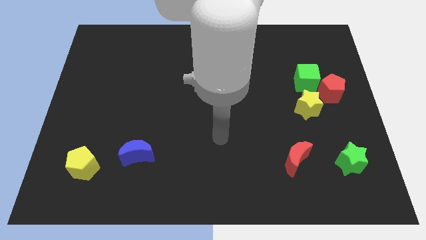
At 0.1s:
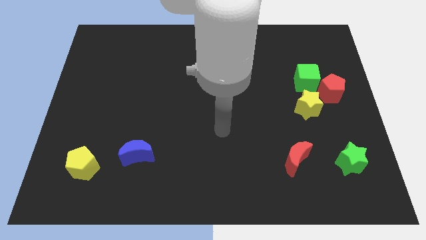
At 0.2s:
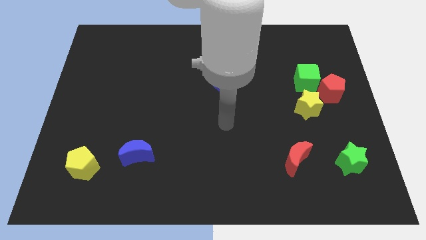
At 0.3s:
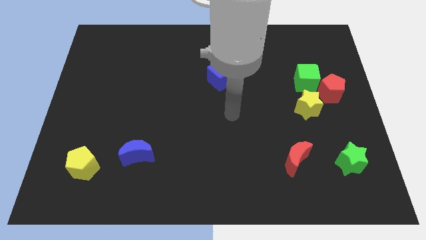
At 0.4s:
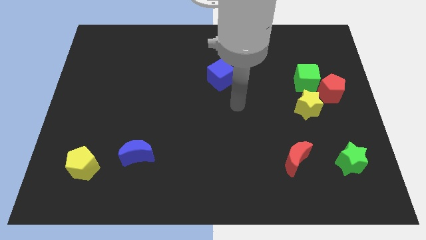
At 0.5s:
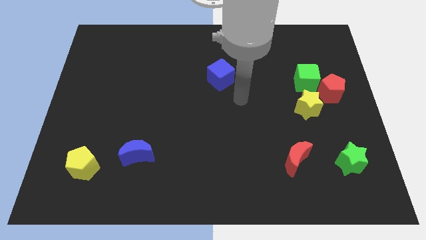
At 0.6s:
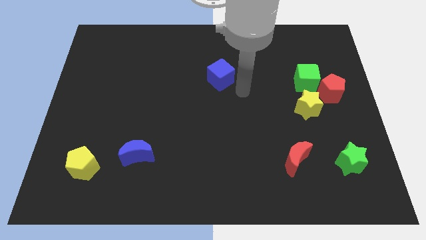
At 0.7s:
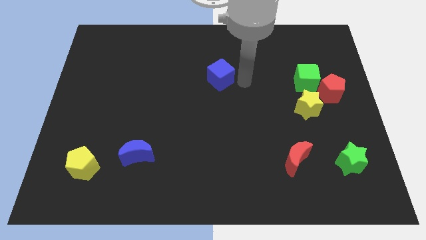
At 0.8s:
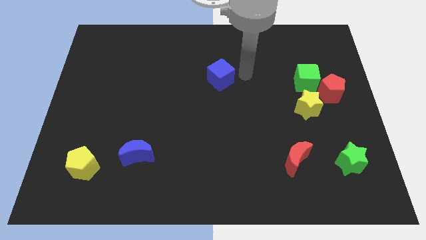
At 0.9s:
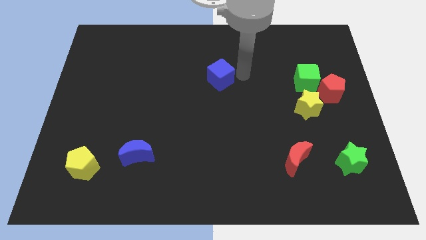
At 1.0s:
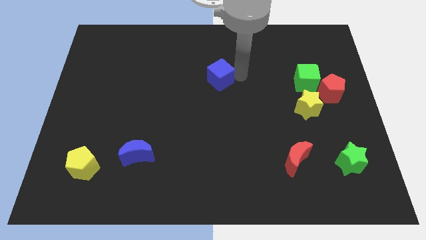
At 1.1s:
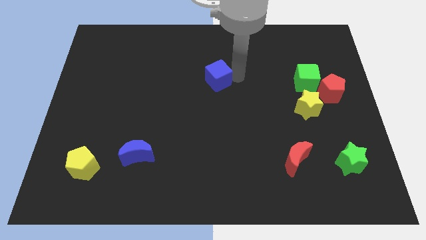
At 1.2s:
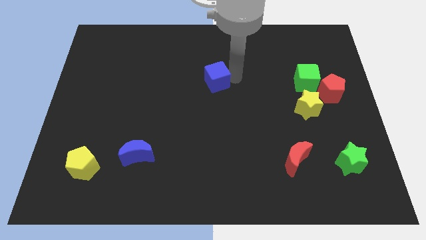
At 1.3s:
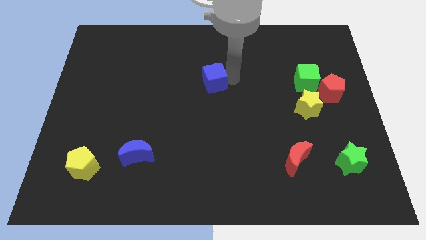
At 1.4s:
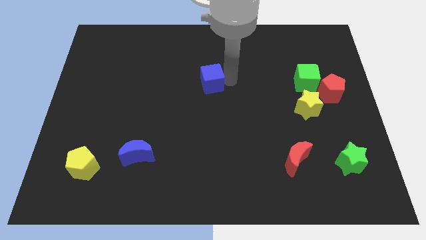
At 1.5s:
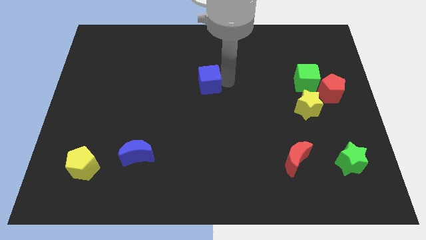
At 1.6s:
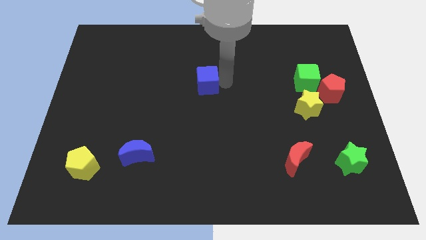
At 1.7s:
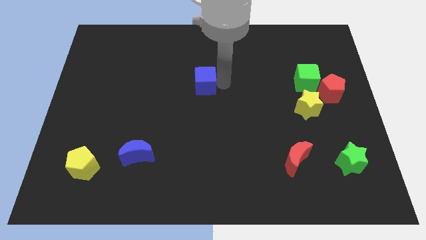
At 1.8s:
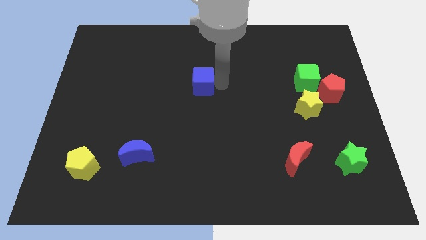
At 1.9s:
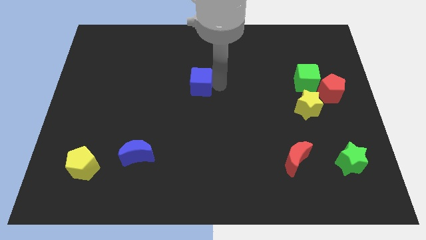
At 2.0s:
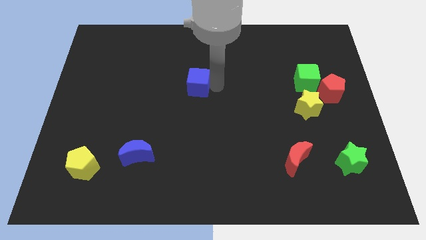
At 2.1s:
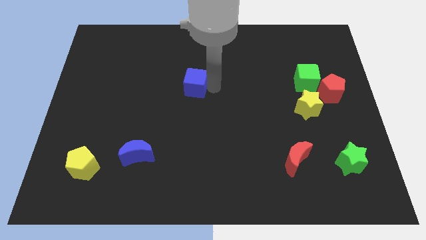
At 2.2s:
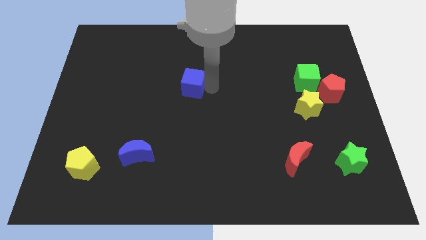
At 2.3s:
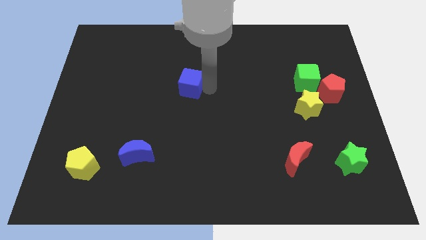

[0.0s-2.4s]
slightly push the blue cube to the left

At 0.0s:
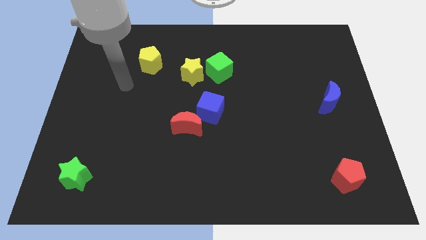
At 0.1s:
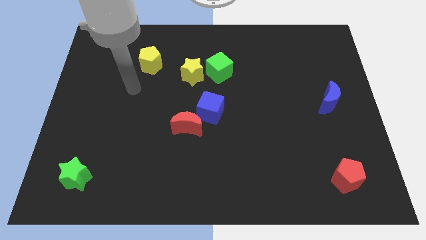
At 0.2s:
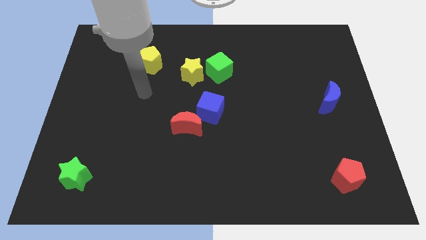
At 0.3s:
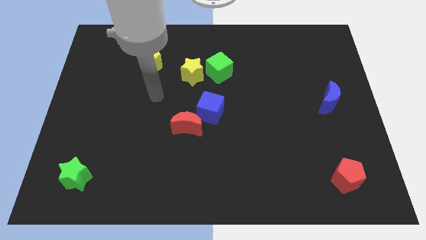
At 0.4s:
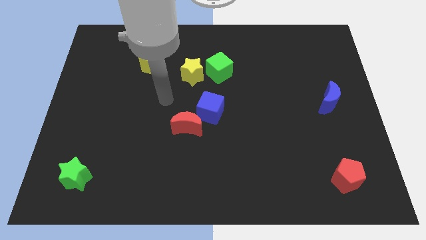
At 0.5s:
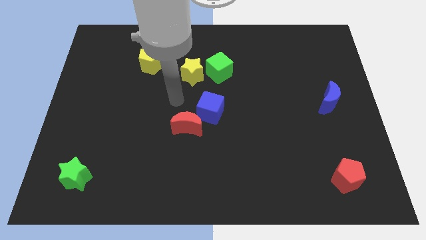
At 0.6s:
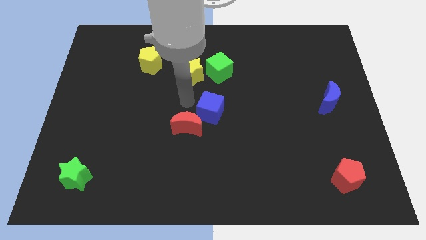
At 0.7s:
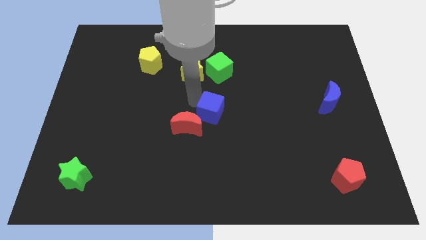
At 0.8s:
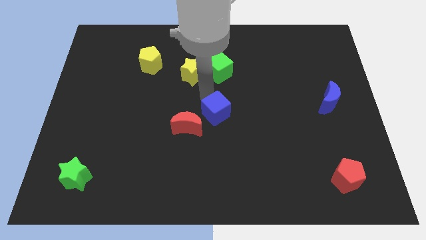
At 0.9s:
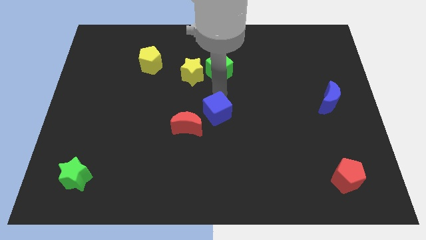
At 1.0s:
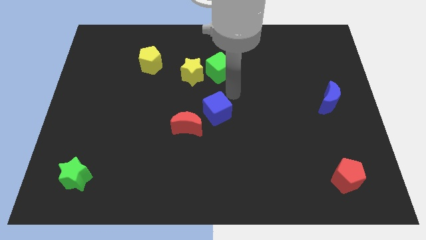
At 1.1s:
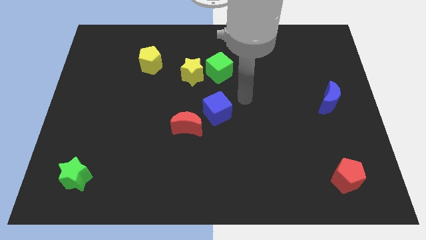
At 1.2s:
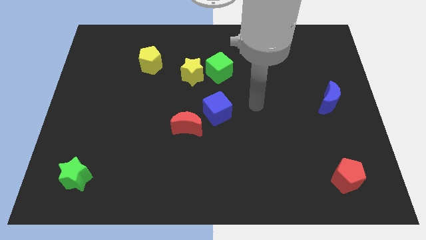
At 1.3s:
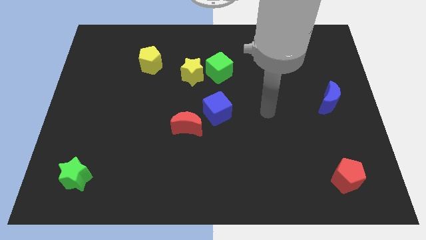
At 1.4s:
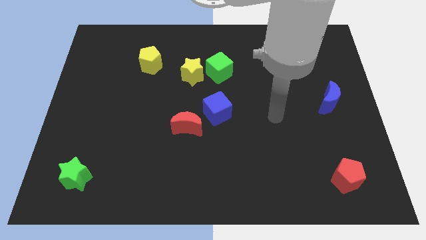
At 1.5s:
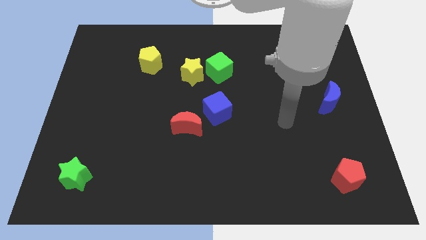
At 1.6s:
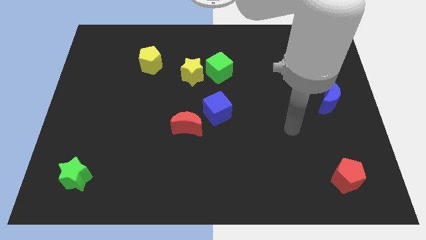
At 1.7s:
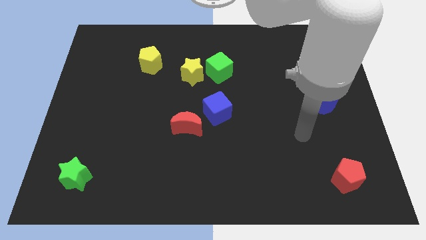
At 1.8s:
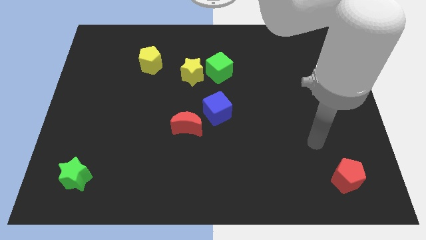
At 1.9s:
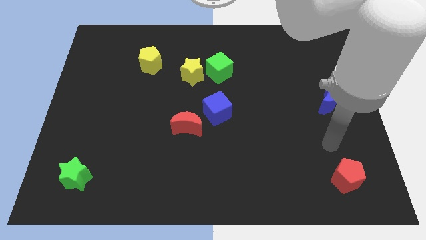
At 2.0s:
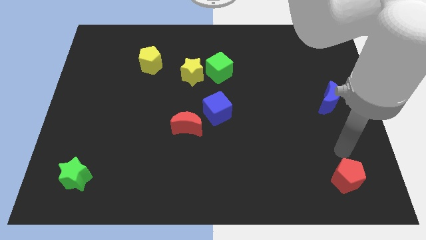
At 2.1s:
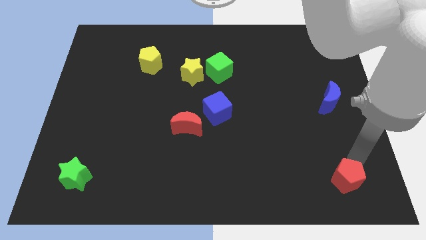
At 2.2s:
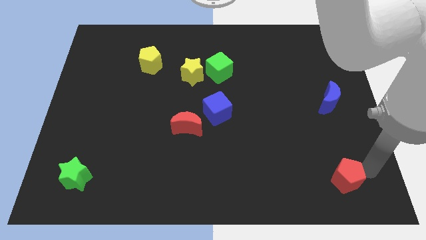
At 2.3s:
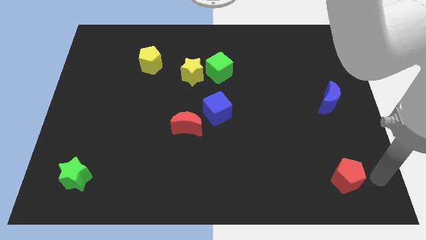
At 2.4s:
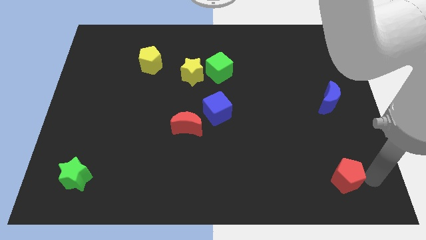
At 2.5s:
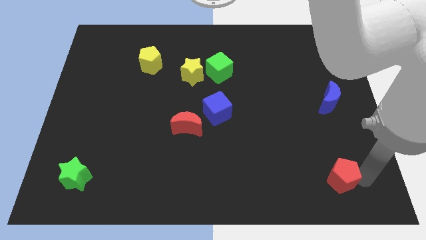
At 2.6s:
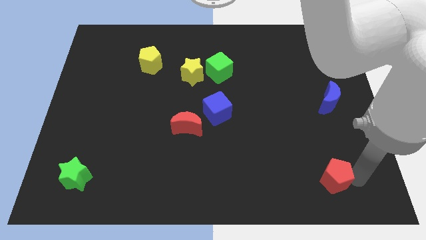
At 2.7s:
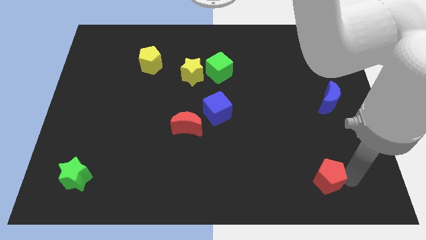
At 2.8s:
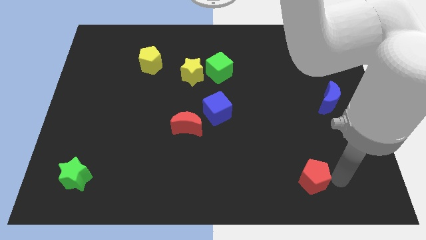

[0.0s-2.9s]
slightly slide the red pentagon to the left

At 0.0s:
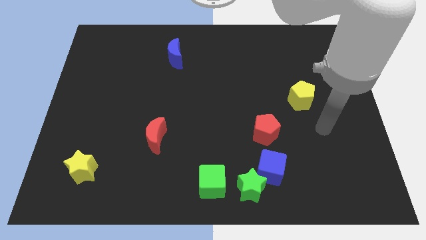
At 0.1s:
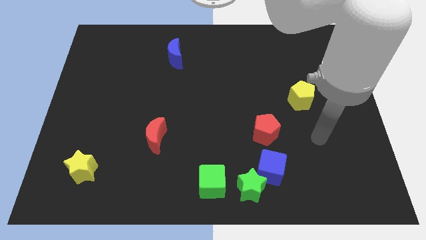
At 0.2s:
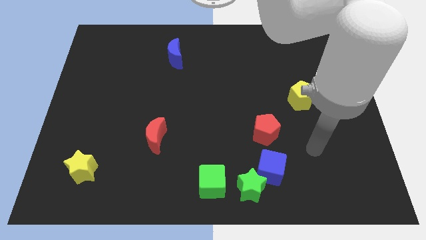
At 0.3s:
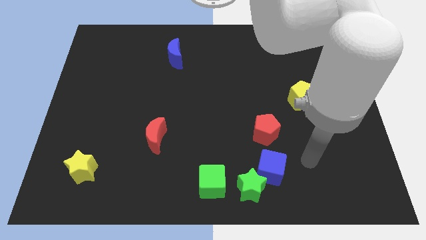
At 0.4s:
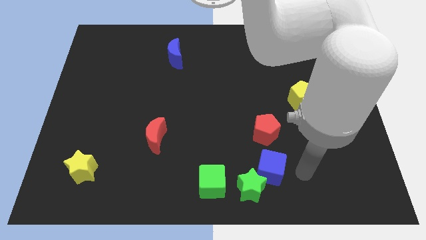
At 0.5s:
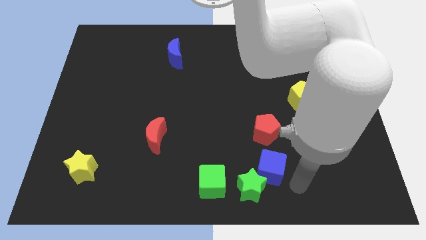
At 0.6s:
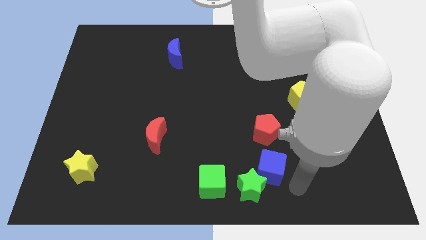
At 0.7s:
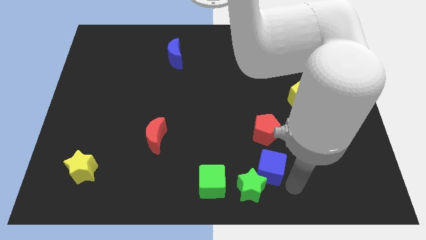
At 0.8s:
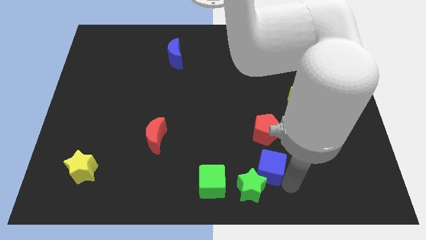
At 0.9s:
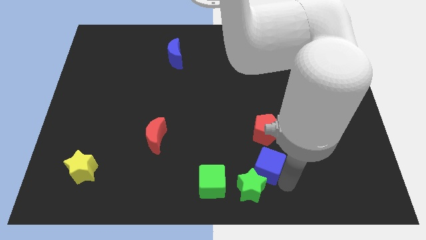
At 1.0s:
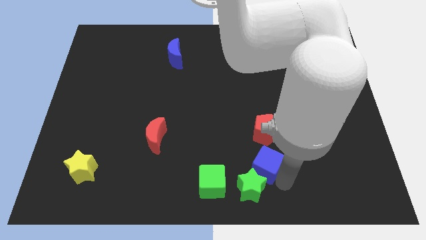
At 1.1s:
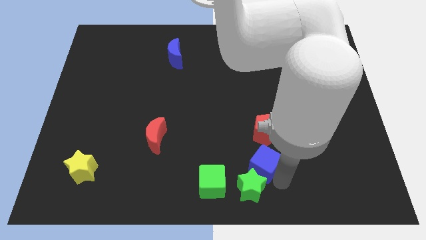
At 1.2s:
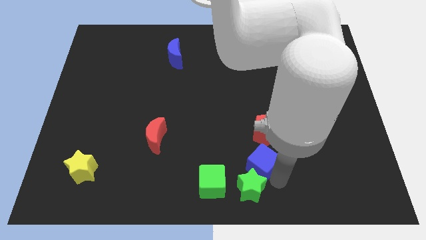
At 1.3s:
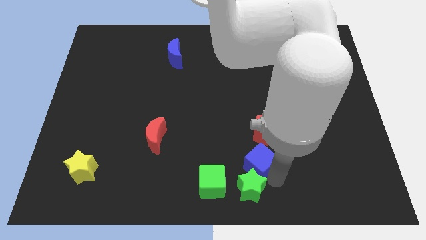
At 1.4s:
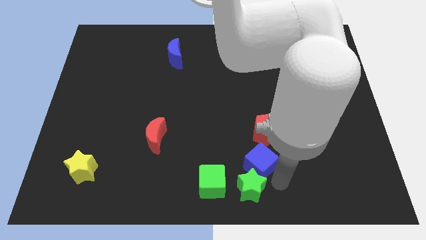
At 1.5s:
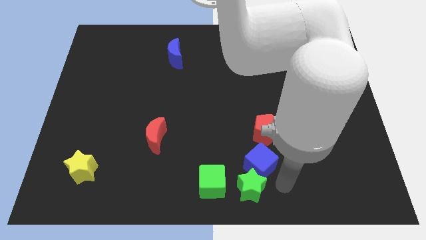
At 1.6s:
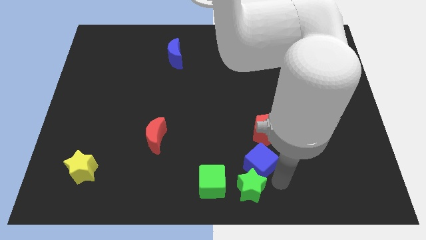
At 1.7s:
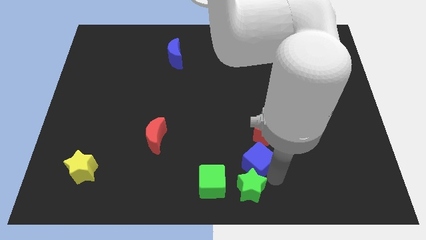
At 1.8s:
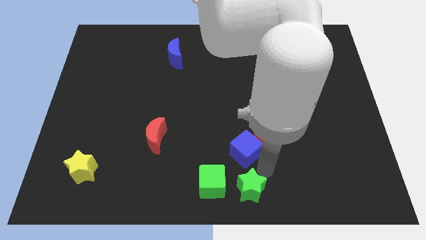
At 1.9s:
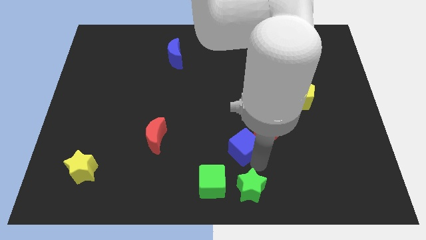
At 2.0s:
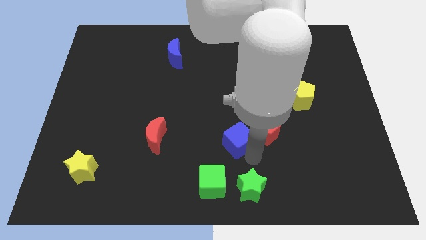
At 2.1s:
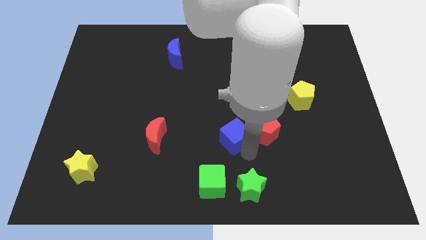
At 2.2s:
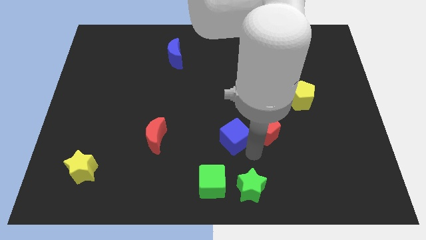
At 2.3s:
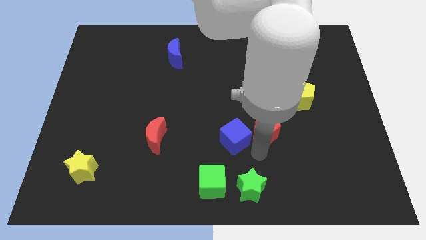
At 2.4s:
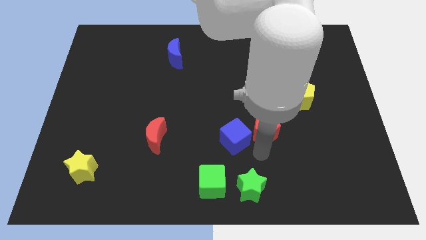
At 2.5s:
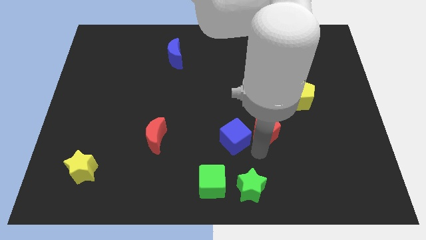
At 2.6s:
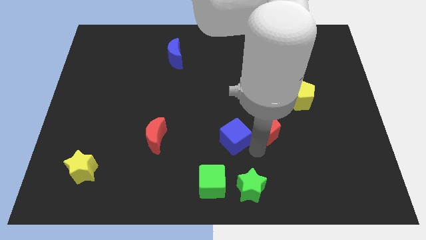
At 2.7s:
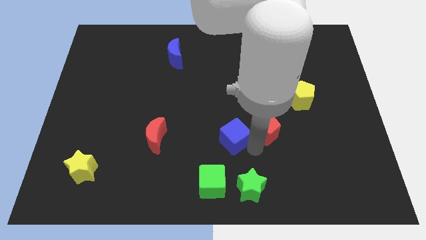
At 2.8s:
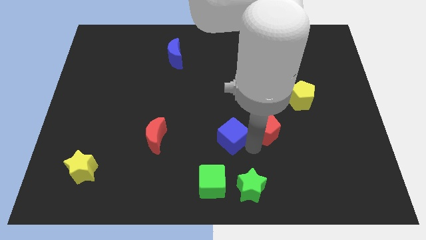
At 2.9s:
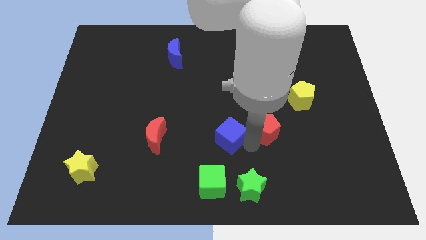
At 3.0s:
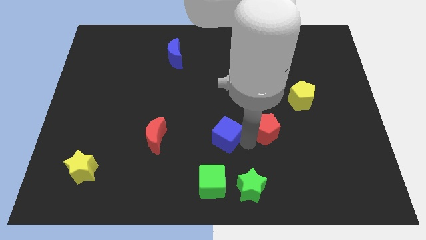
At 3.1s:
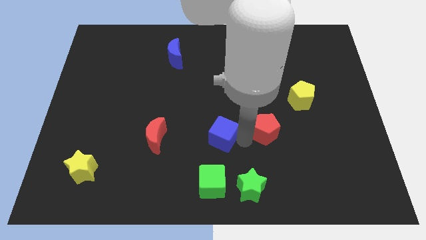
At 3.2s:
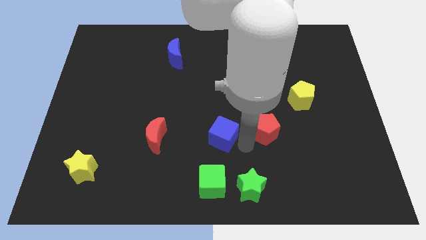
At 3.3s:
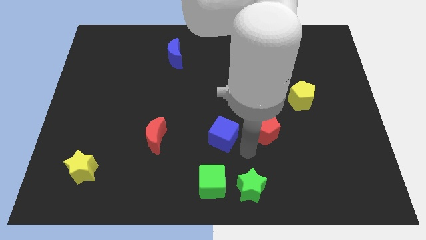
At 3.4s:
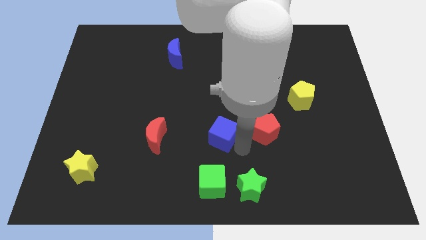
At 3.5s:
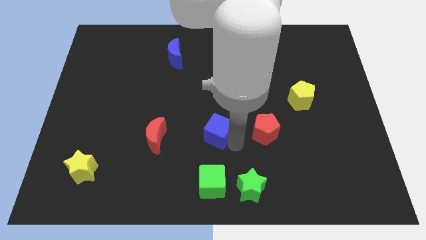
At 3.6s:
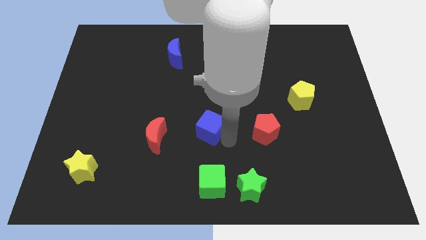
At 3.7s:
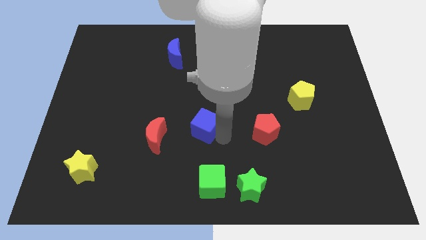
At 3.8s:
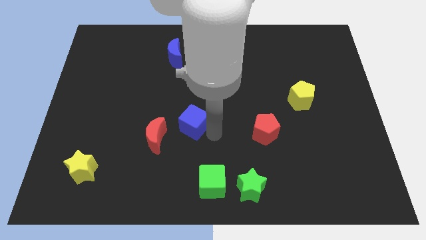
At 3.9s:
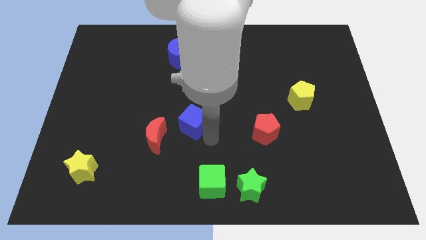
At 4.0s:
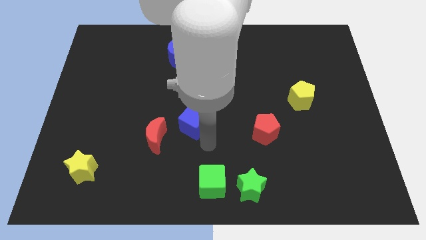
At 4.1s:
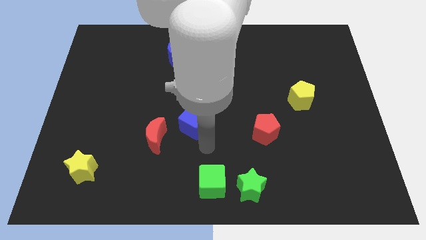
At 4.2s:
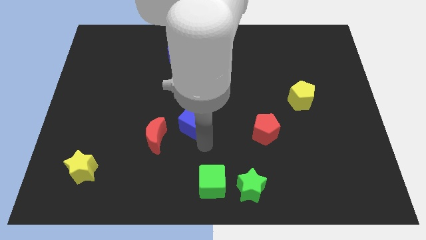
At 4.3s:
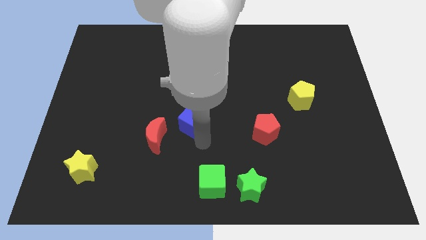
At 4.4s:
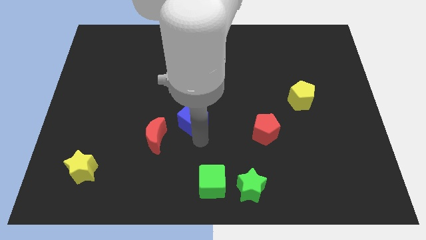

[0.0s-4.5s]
slide the blue cube up and then left
